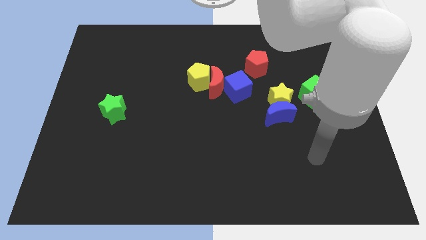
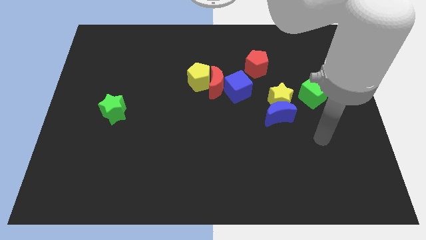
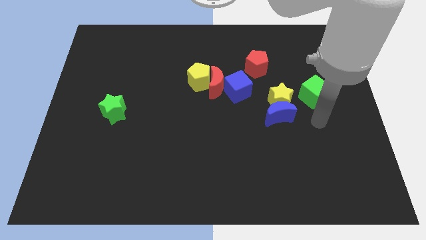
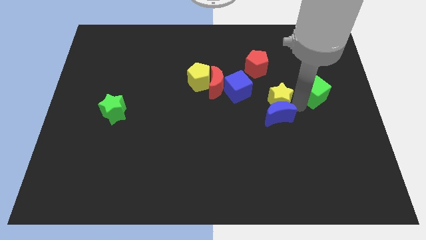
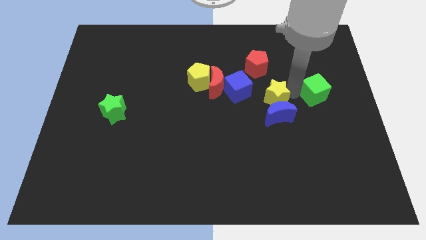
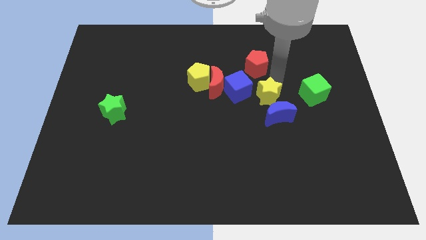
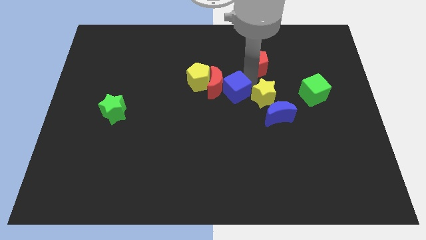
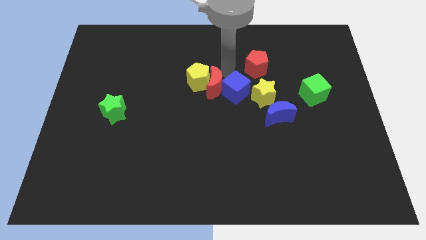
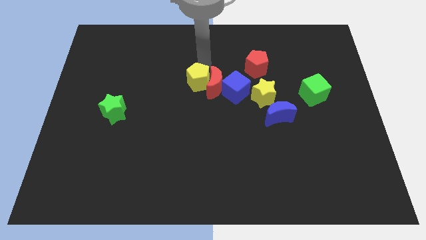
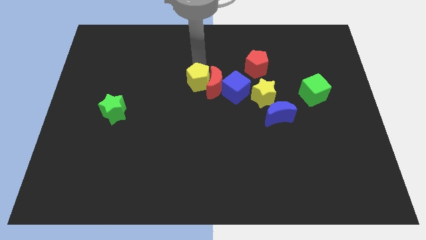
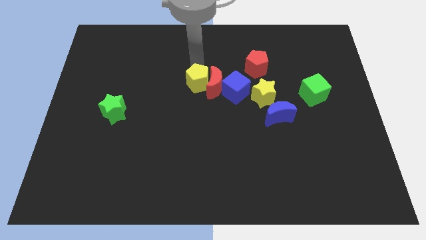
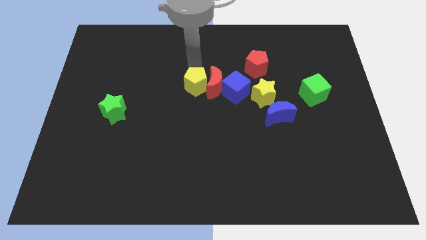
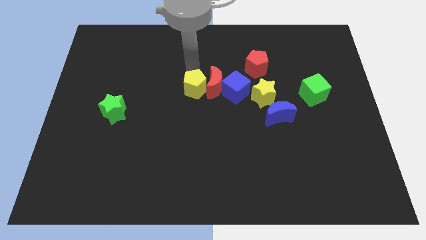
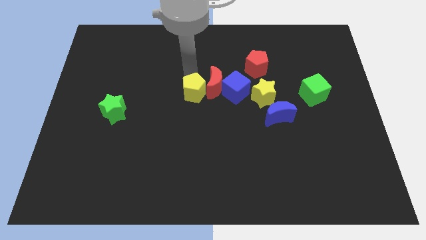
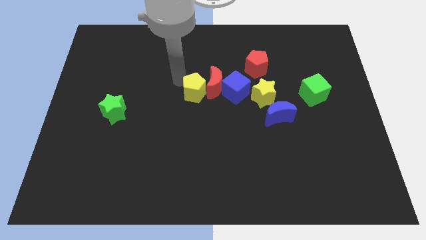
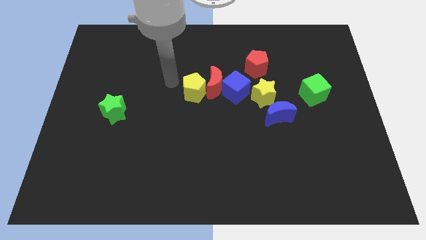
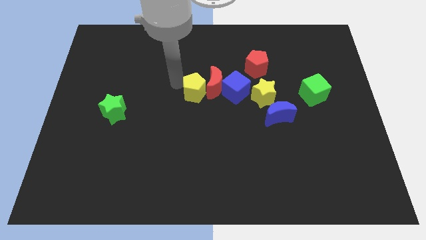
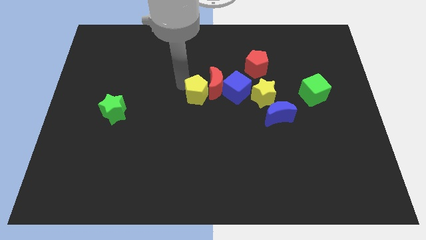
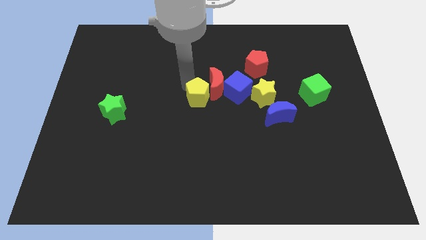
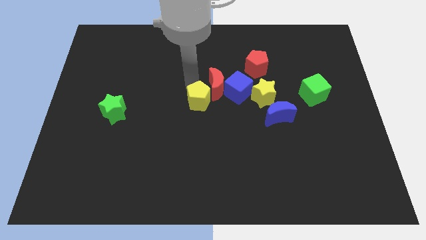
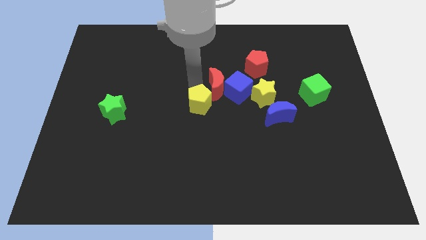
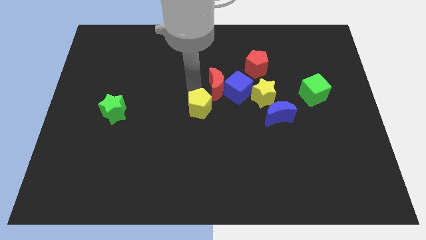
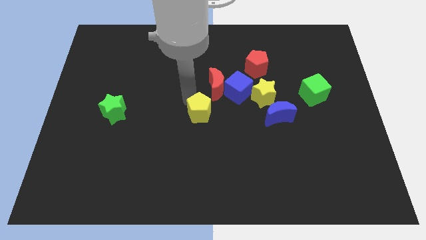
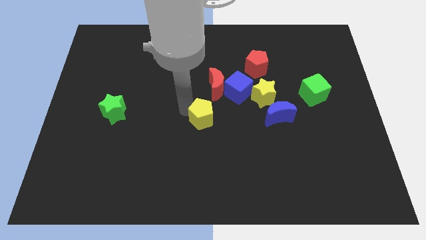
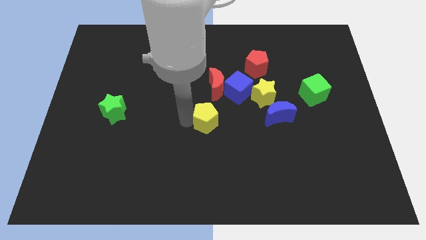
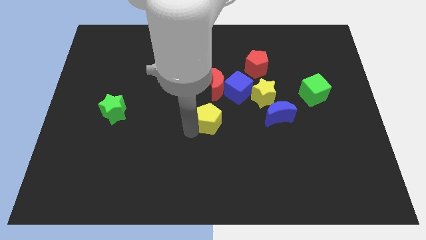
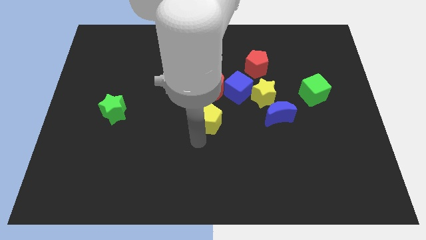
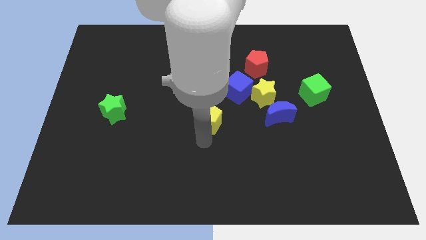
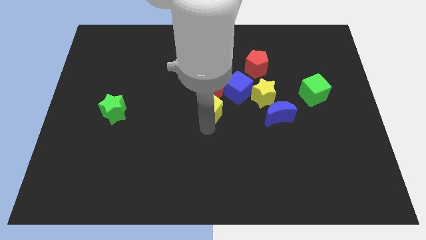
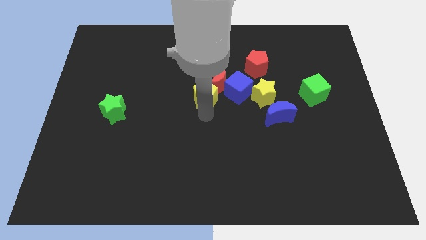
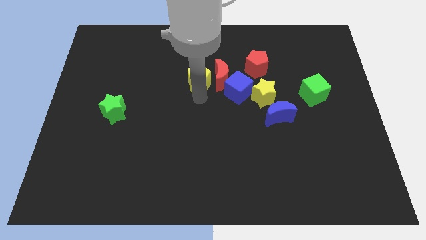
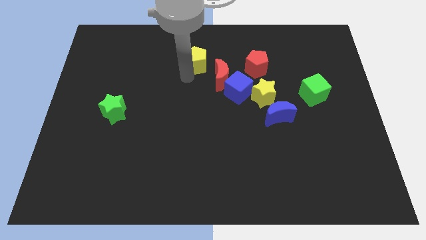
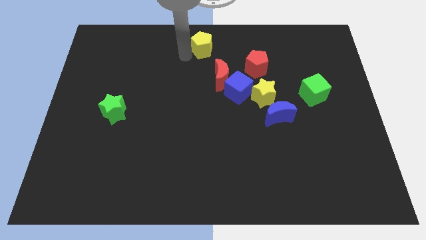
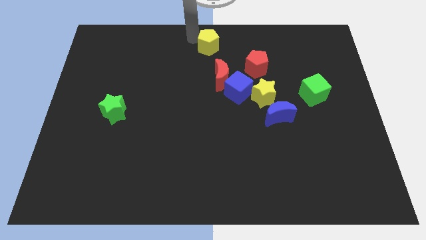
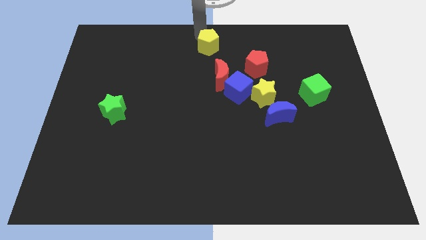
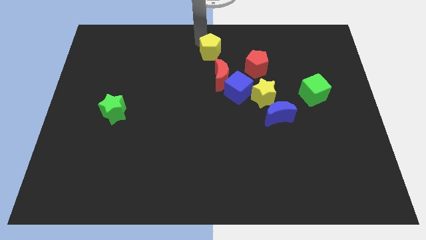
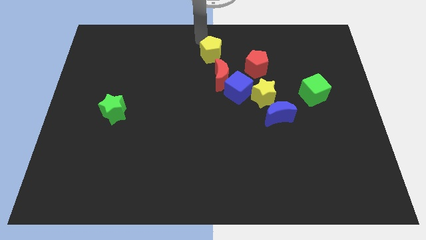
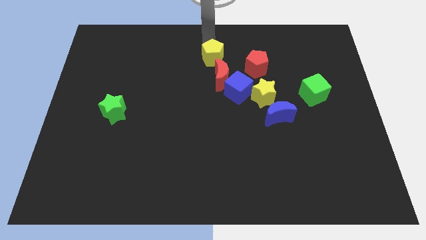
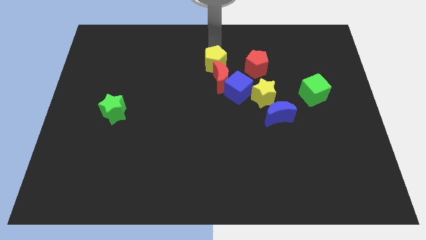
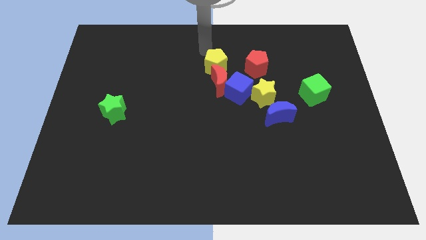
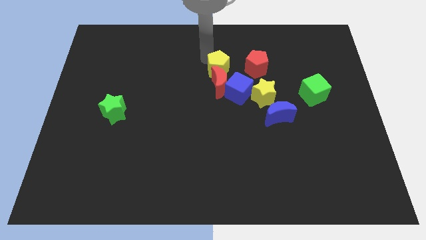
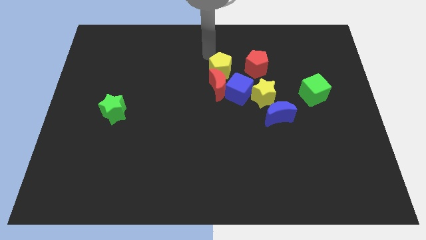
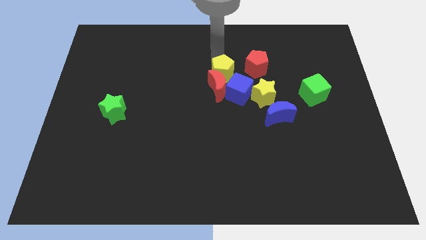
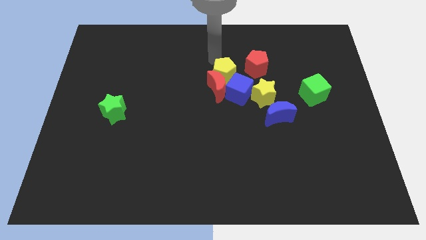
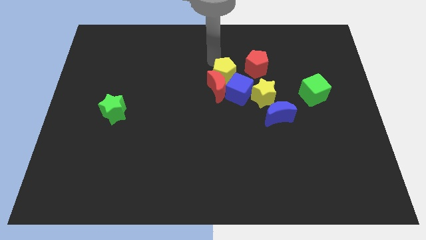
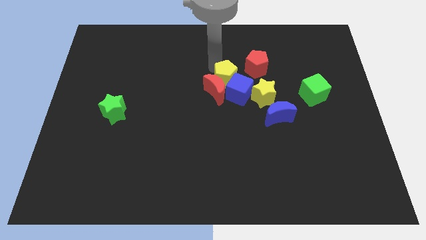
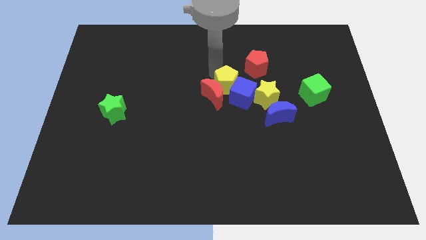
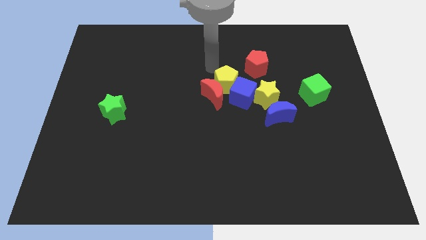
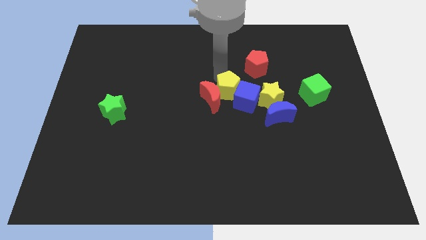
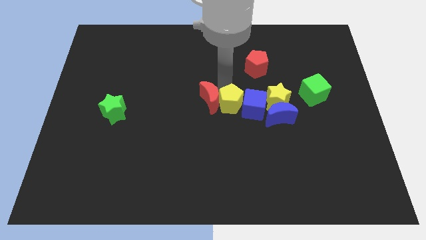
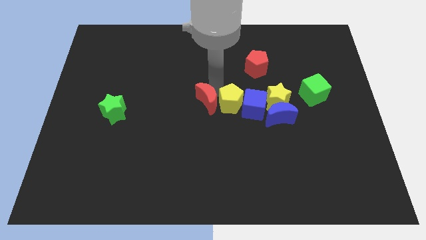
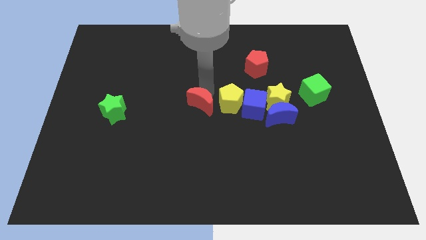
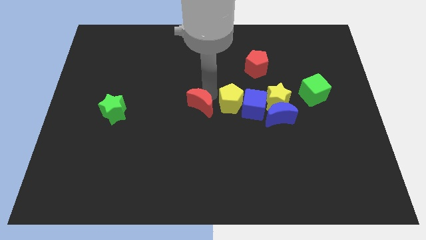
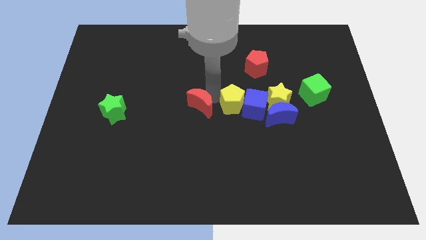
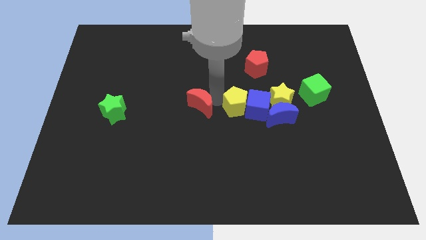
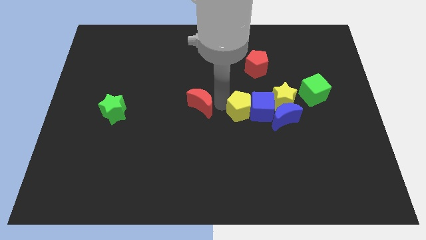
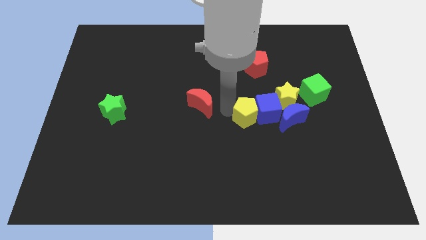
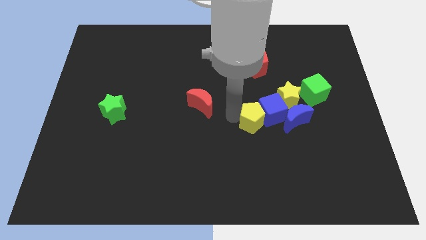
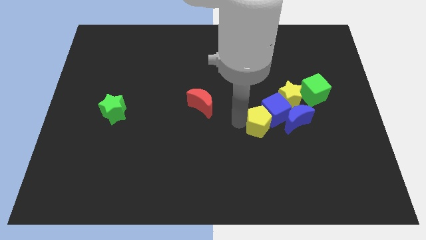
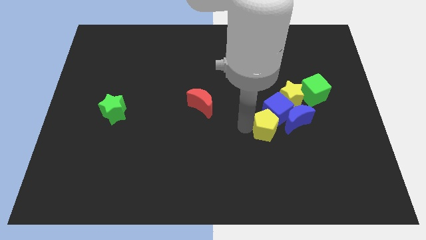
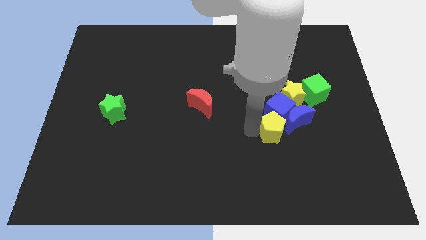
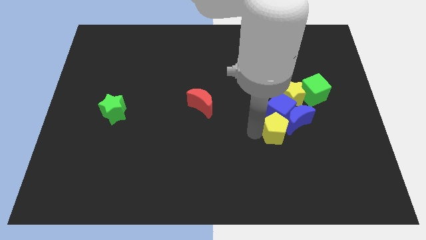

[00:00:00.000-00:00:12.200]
slide the yellow pentagon towards the blue moon

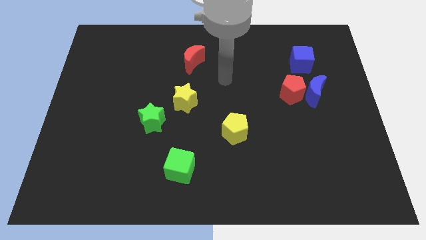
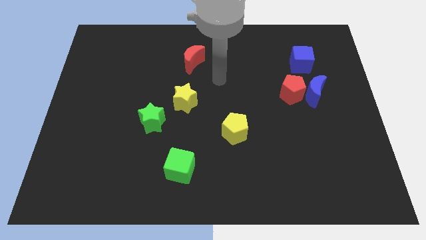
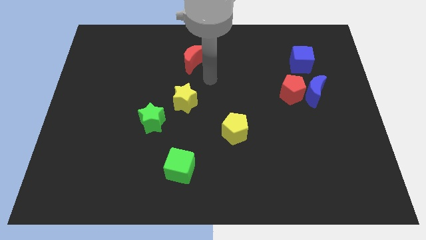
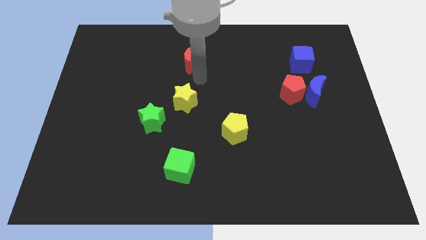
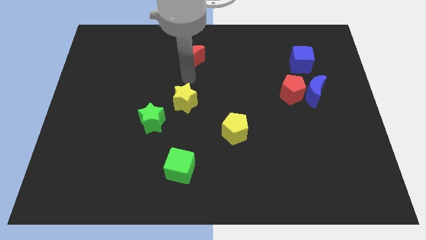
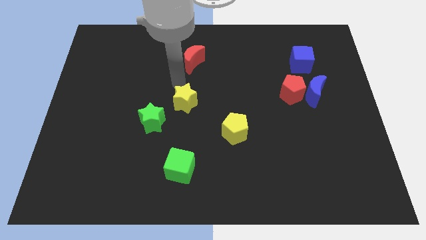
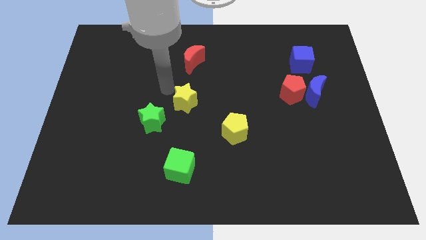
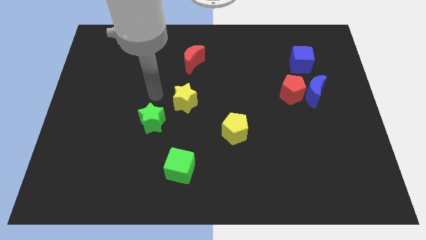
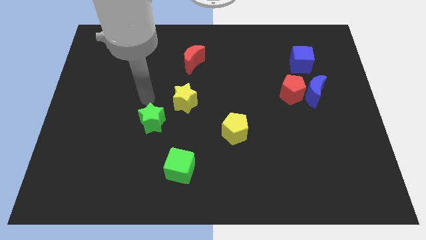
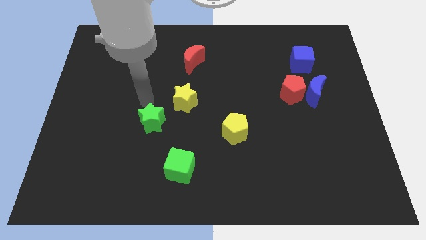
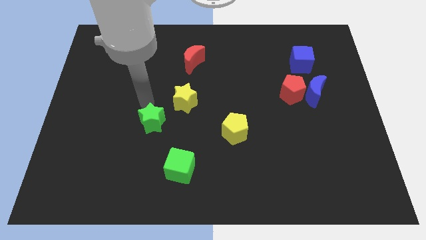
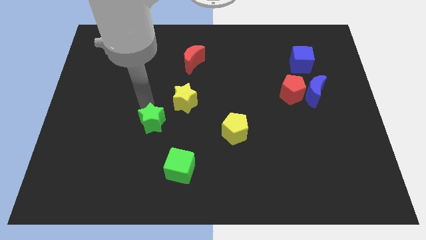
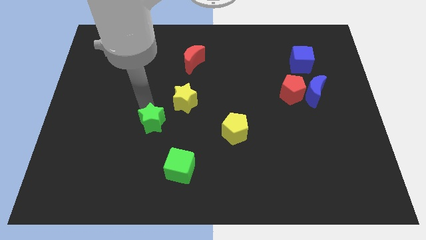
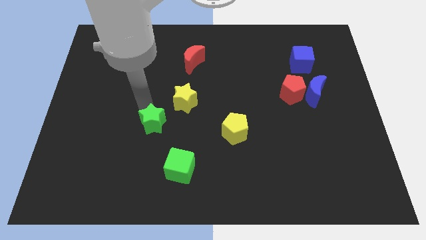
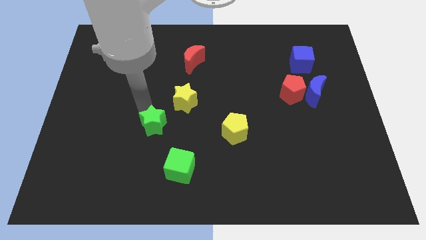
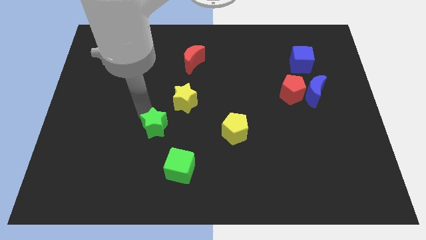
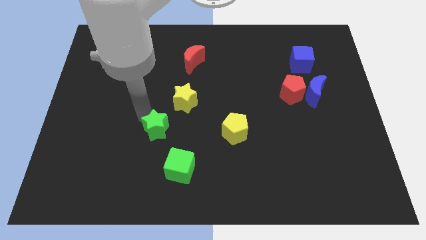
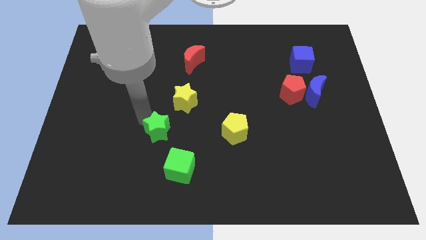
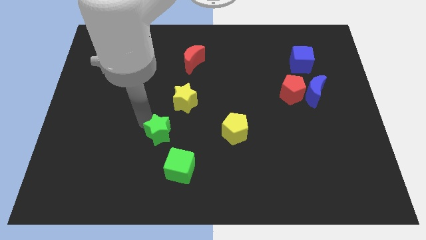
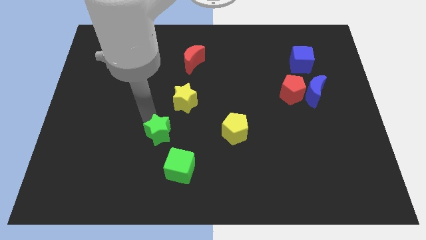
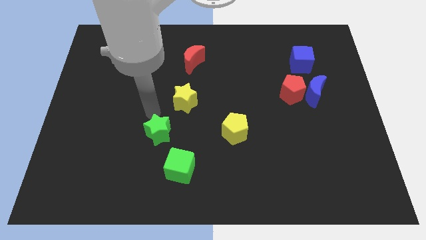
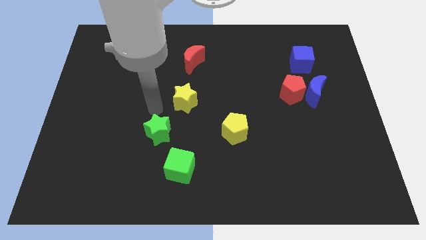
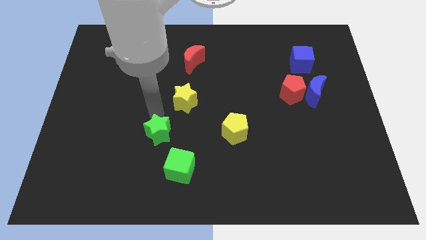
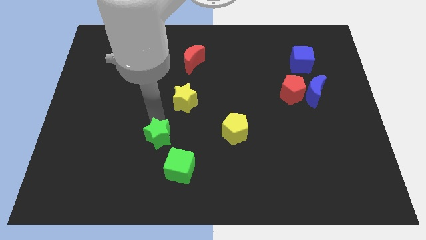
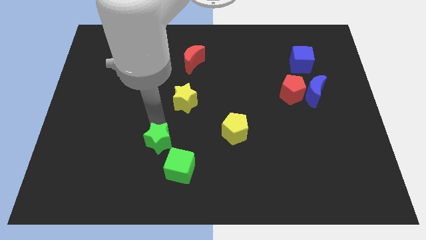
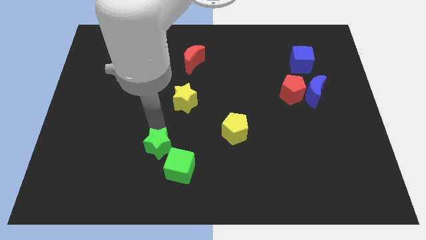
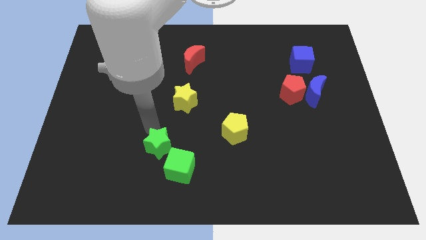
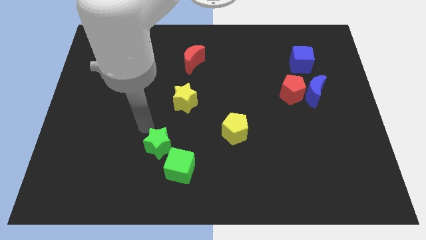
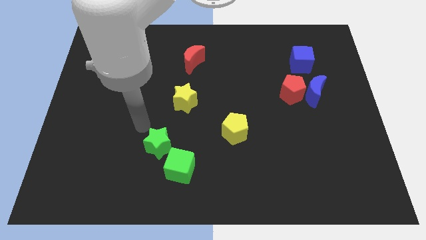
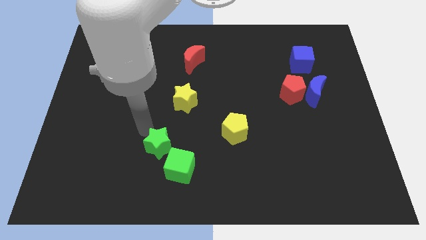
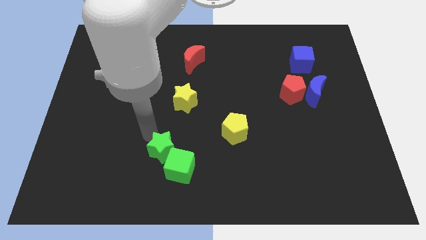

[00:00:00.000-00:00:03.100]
put the green star to the green cube
